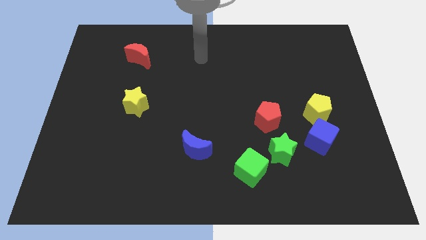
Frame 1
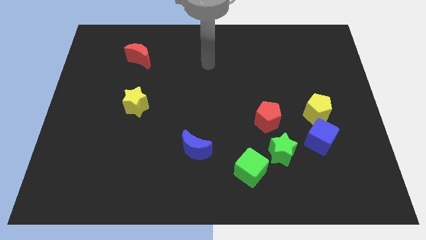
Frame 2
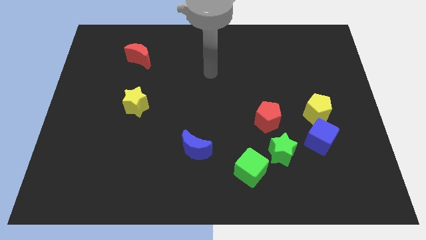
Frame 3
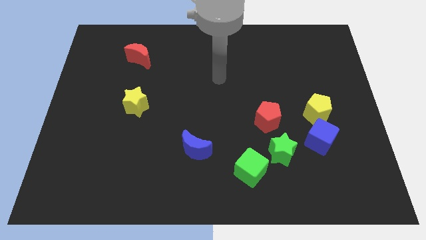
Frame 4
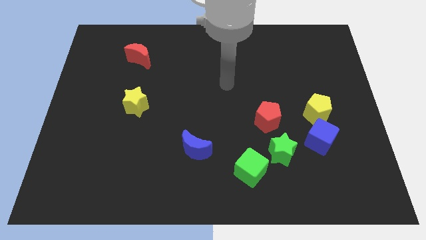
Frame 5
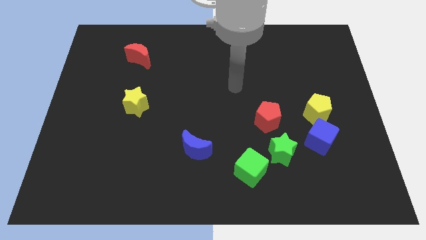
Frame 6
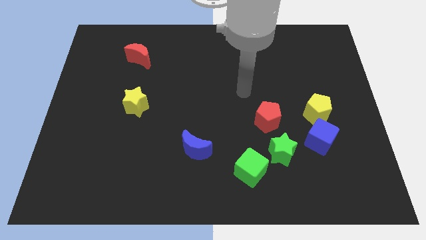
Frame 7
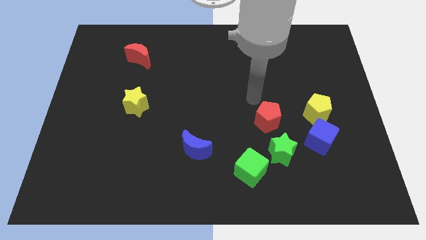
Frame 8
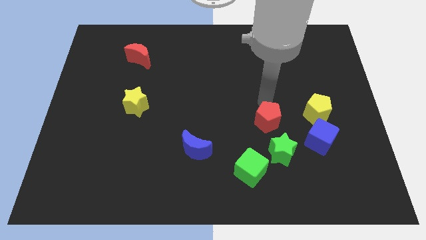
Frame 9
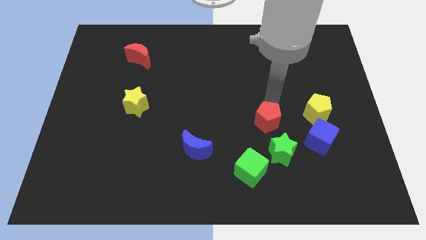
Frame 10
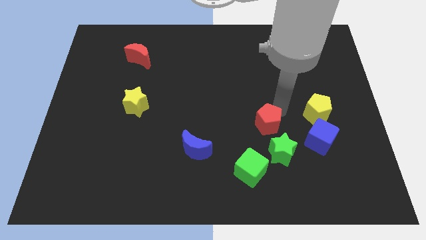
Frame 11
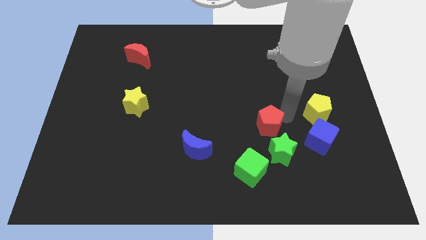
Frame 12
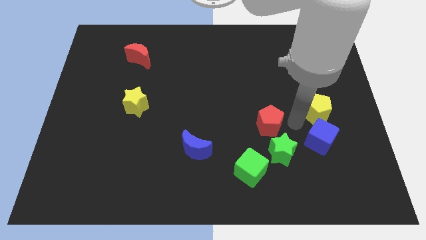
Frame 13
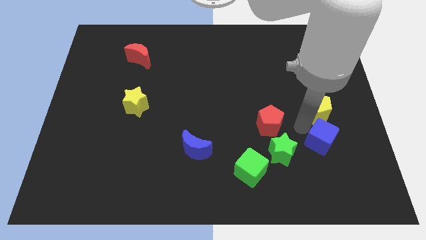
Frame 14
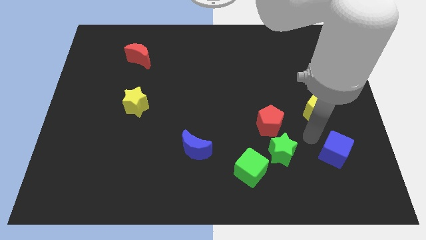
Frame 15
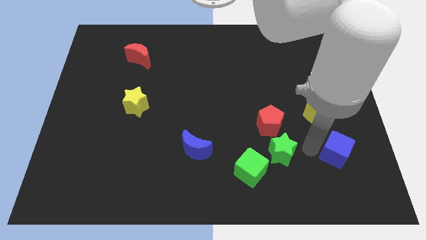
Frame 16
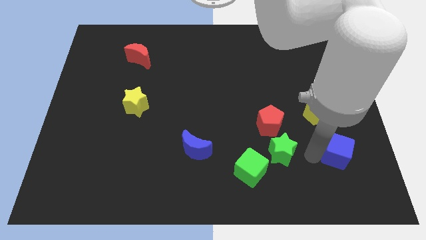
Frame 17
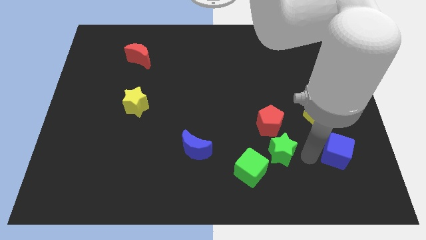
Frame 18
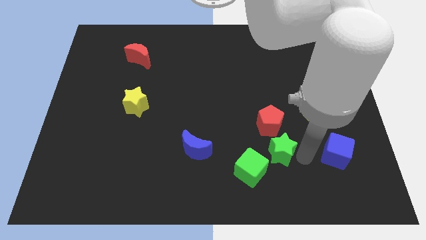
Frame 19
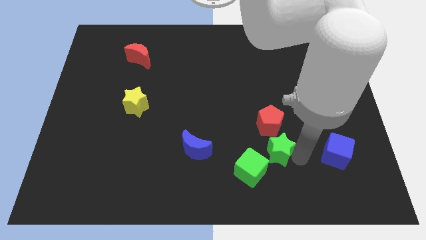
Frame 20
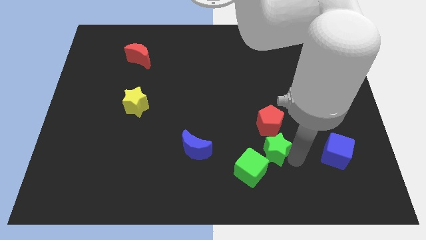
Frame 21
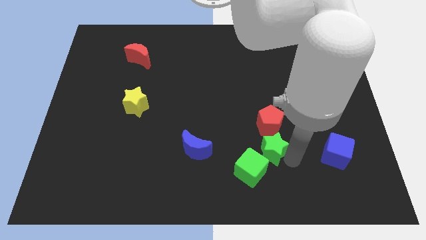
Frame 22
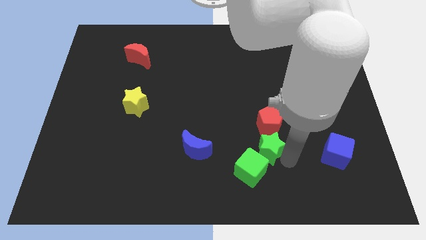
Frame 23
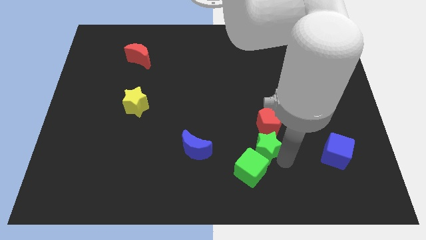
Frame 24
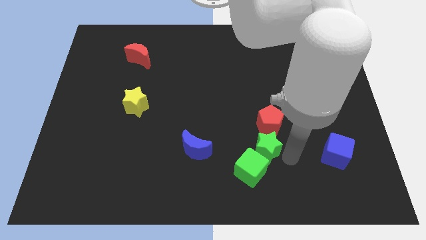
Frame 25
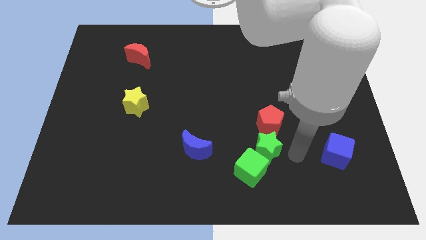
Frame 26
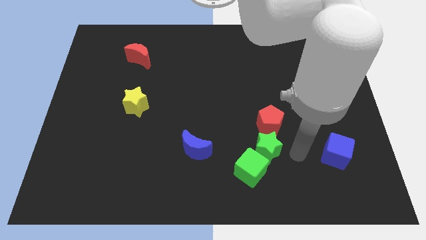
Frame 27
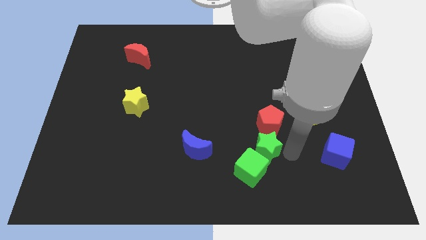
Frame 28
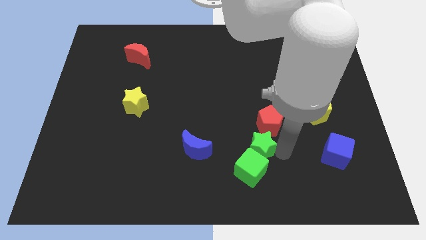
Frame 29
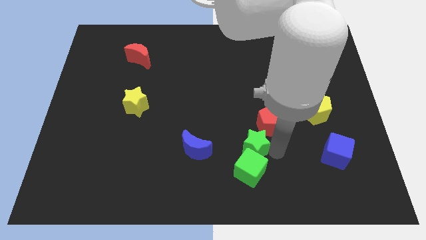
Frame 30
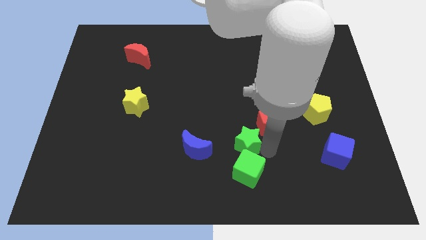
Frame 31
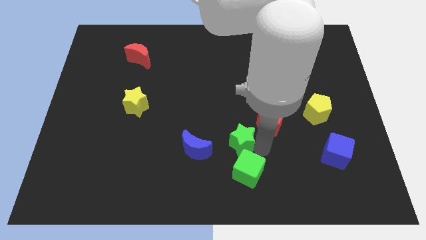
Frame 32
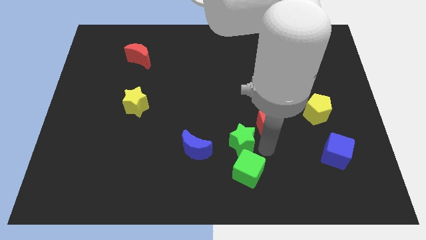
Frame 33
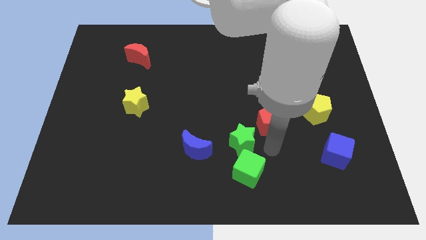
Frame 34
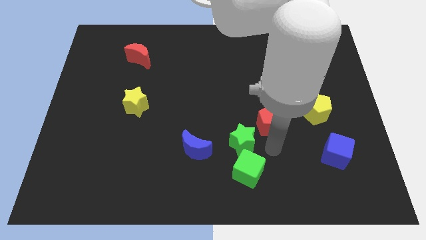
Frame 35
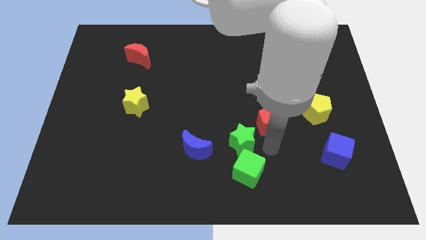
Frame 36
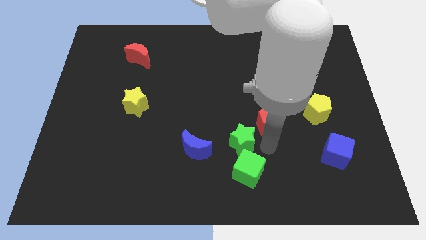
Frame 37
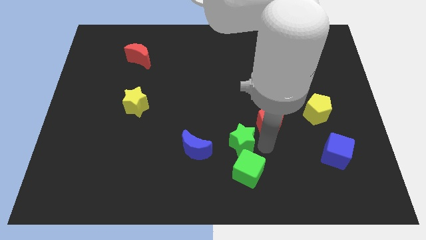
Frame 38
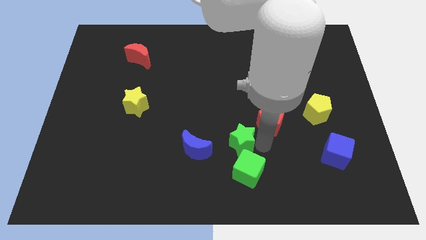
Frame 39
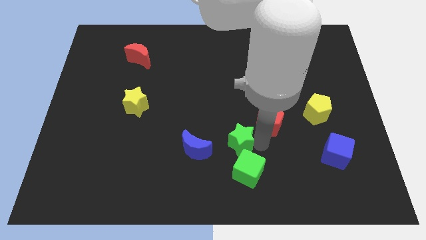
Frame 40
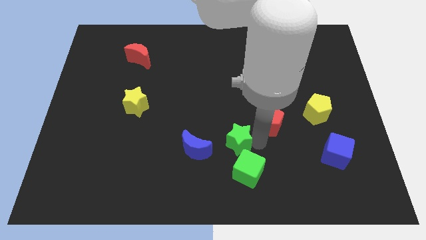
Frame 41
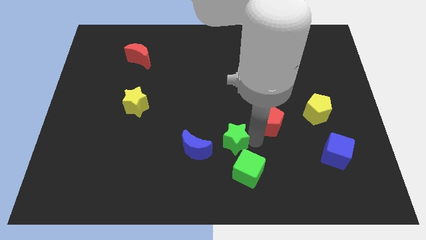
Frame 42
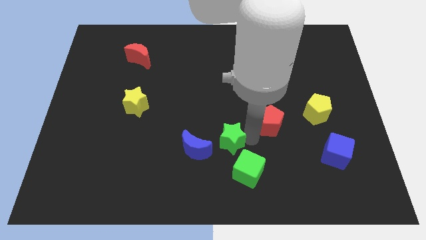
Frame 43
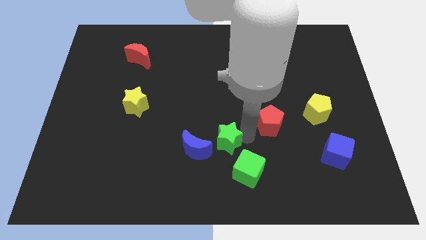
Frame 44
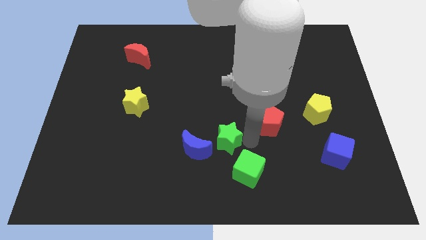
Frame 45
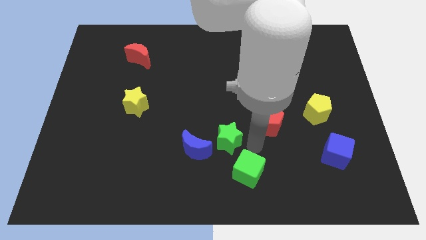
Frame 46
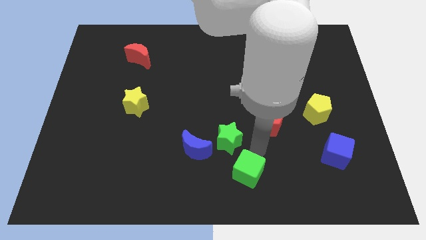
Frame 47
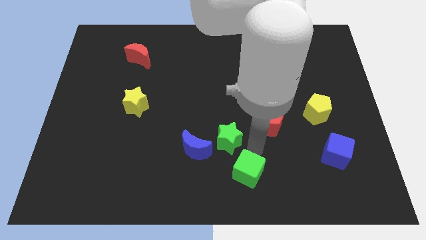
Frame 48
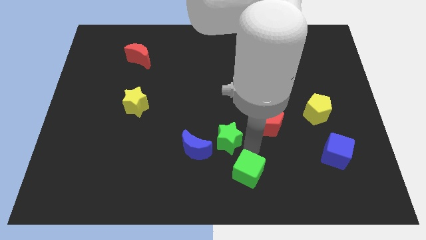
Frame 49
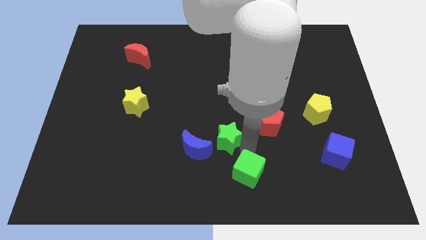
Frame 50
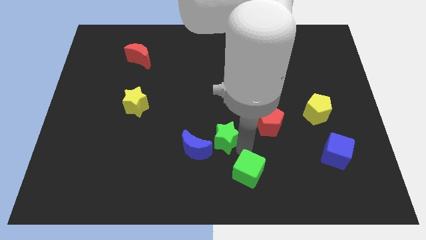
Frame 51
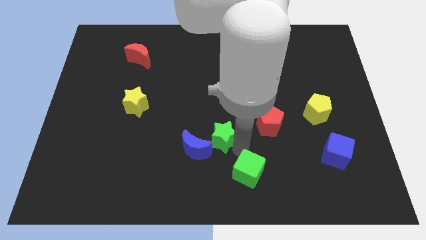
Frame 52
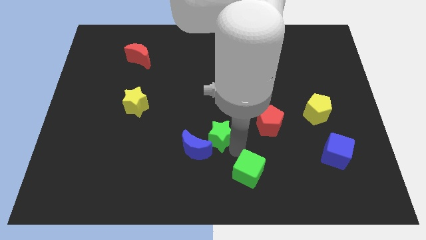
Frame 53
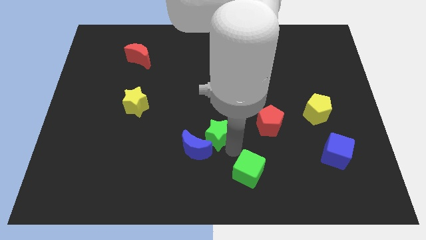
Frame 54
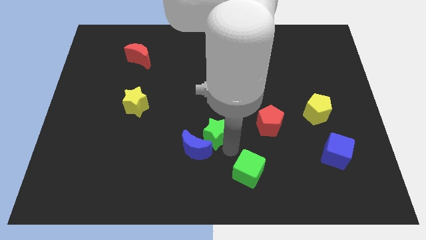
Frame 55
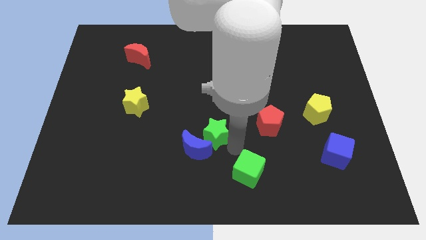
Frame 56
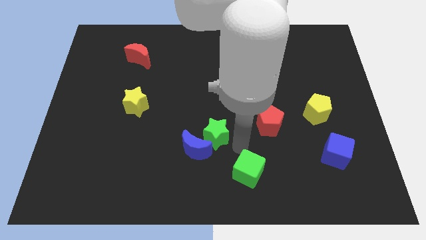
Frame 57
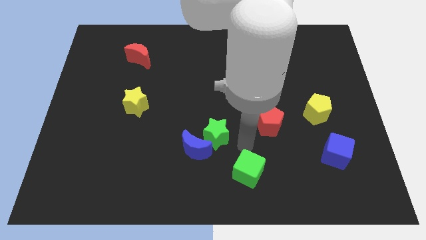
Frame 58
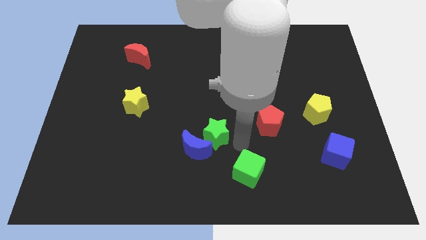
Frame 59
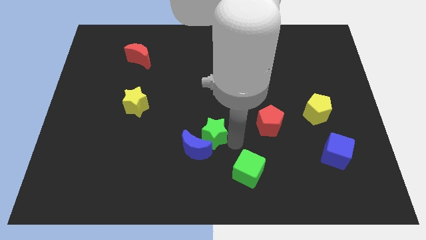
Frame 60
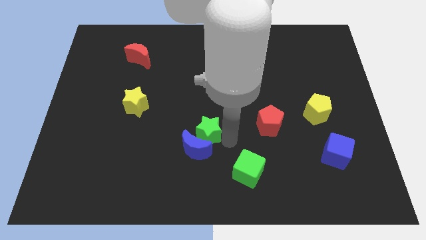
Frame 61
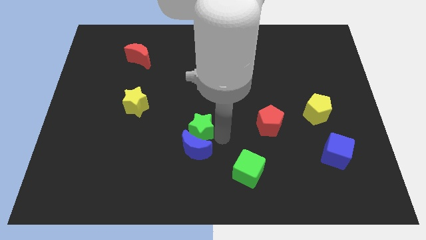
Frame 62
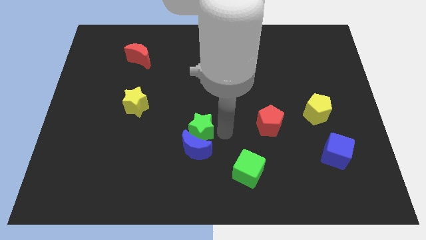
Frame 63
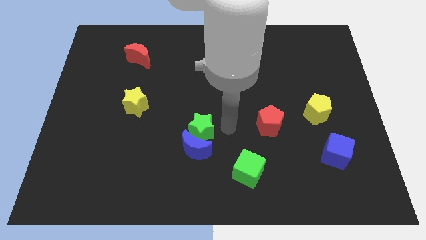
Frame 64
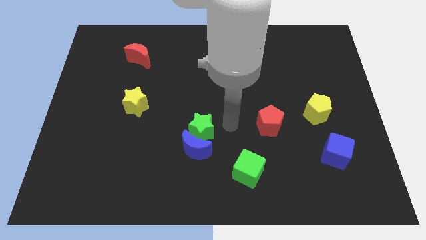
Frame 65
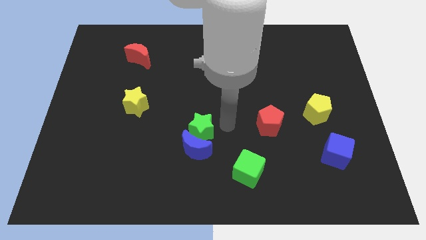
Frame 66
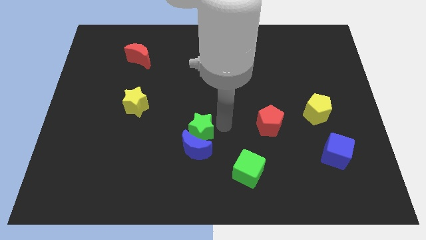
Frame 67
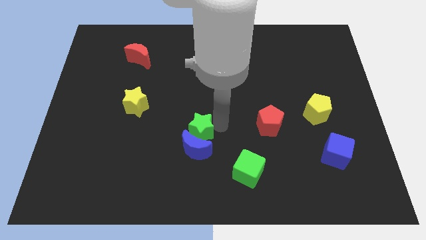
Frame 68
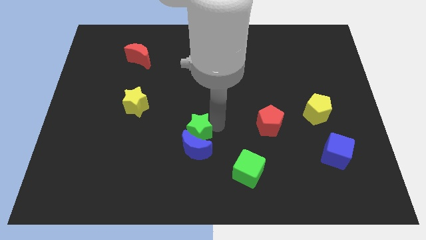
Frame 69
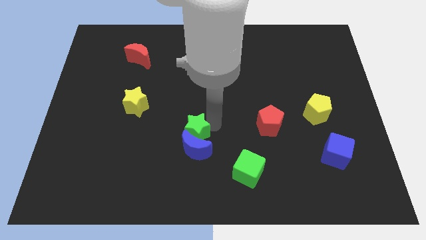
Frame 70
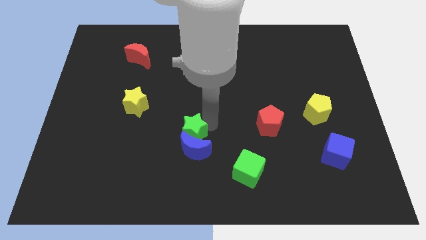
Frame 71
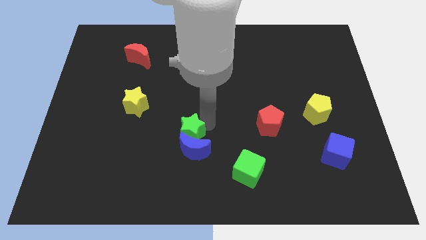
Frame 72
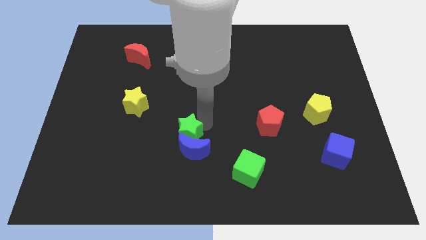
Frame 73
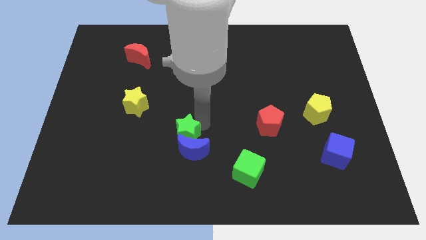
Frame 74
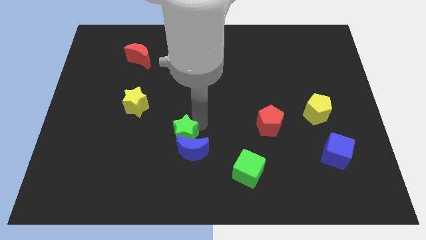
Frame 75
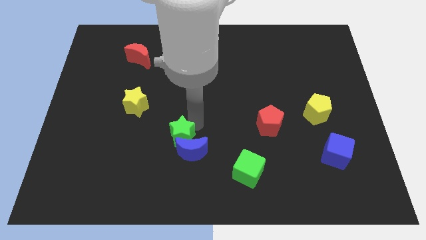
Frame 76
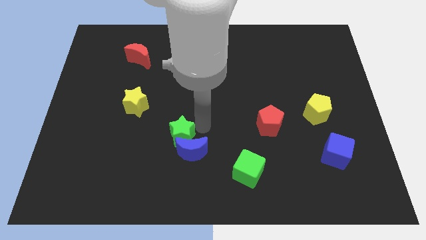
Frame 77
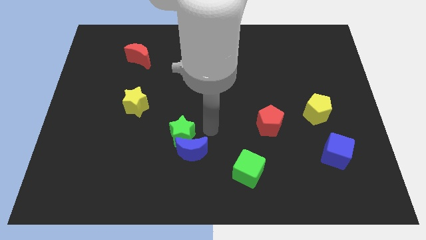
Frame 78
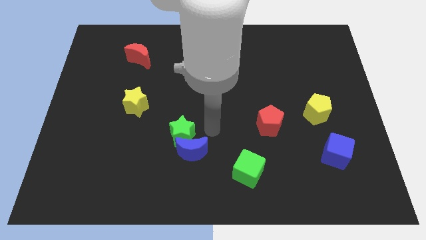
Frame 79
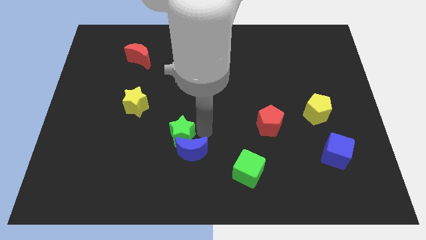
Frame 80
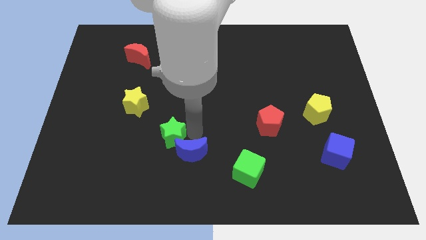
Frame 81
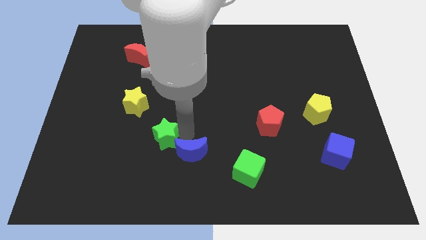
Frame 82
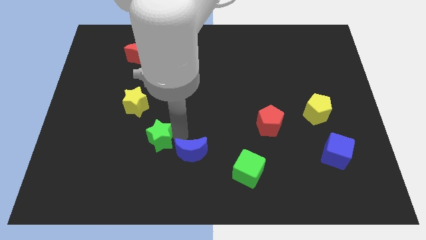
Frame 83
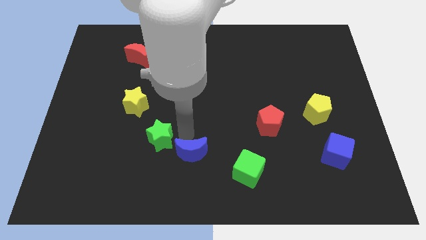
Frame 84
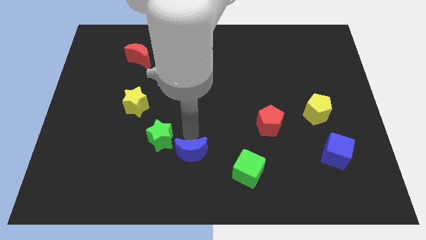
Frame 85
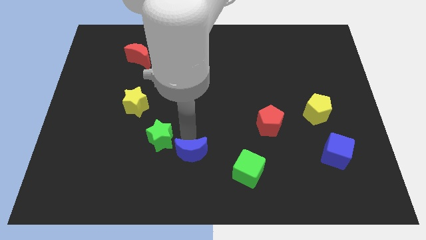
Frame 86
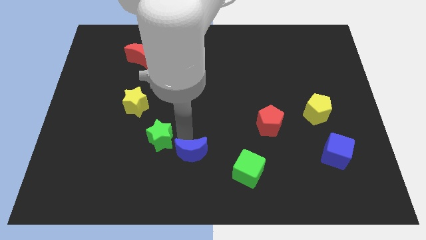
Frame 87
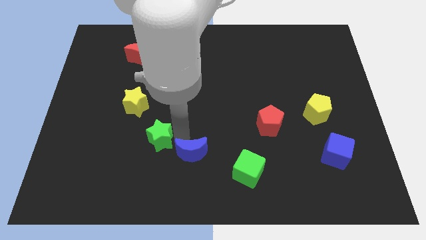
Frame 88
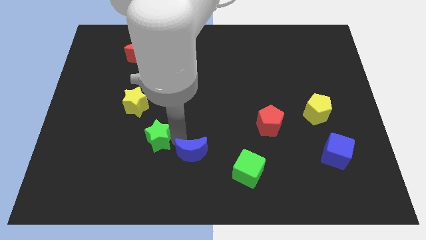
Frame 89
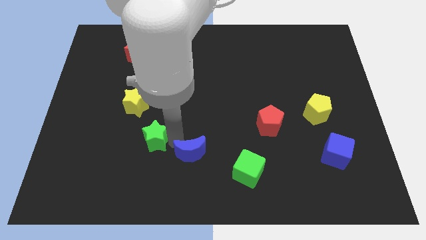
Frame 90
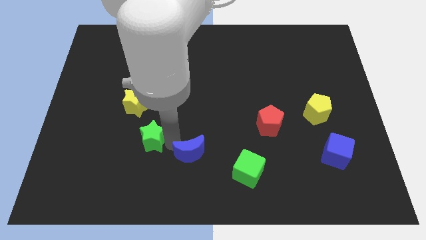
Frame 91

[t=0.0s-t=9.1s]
slide the green star to the bottom of the yellow star
